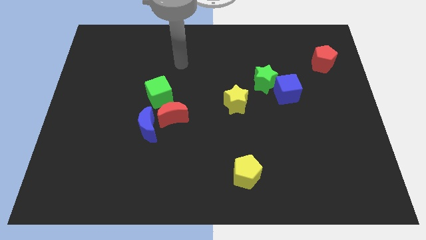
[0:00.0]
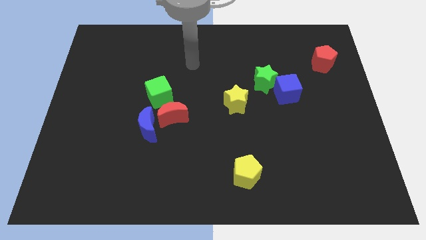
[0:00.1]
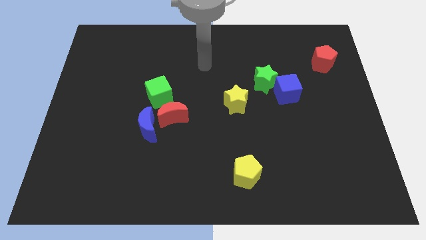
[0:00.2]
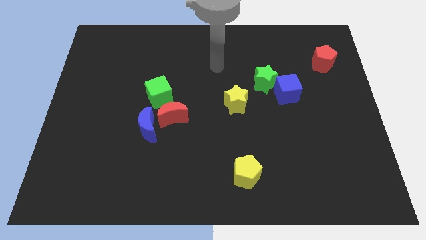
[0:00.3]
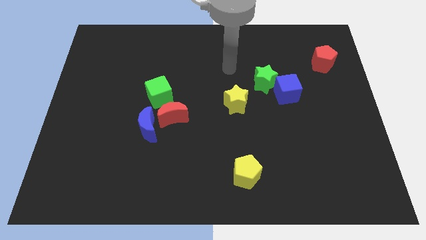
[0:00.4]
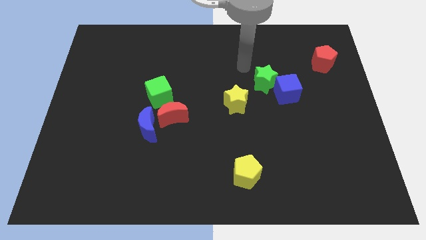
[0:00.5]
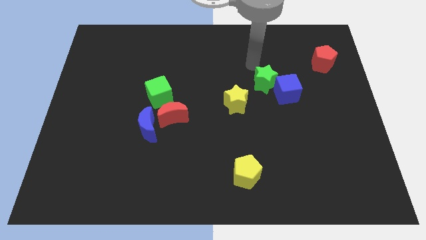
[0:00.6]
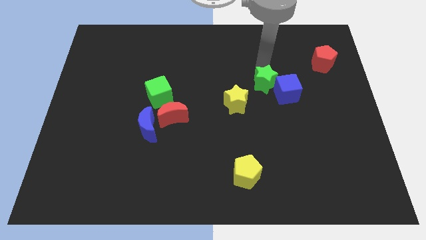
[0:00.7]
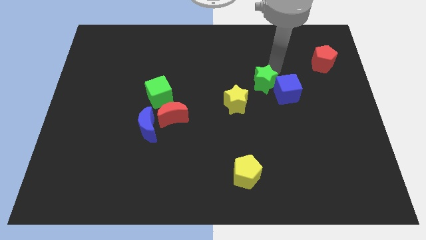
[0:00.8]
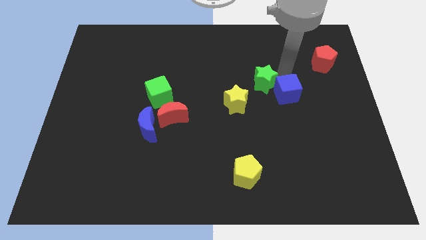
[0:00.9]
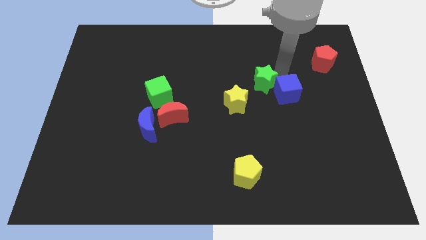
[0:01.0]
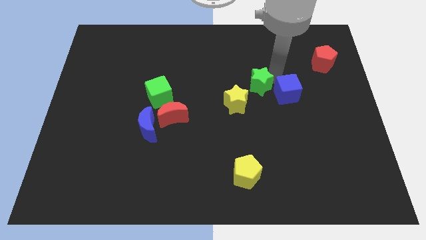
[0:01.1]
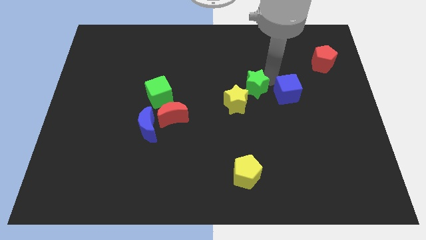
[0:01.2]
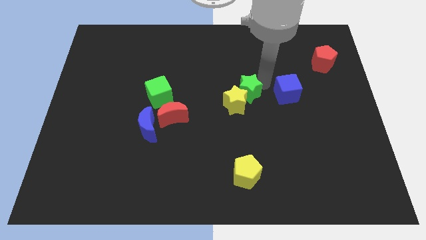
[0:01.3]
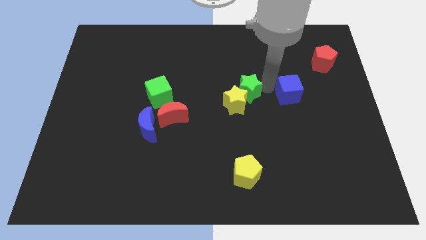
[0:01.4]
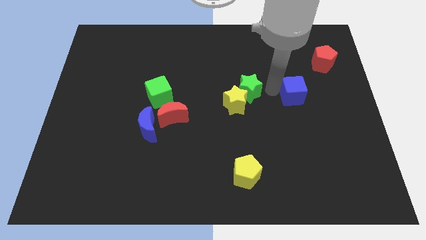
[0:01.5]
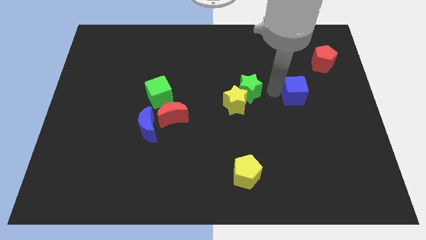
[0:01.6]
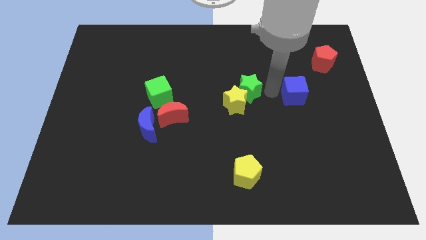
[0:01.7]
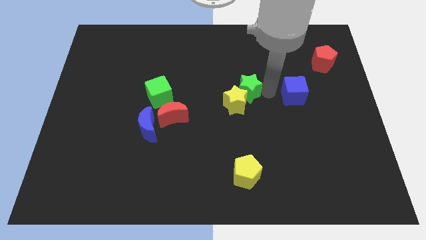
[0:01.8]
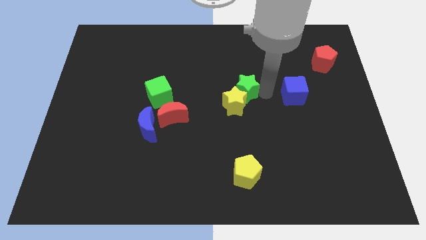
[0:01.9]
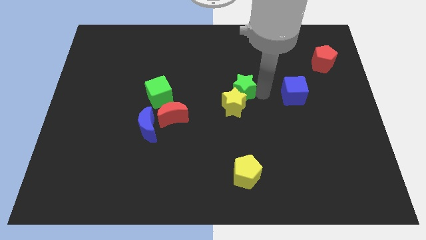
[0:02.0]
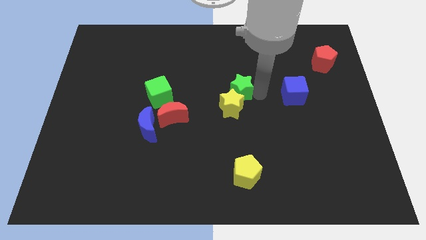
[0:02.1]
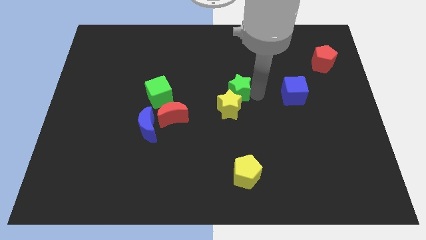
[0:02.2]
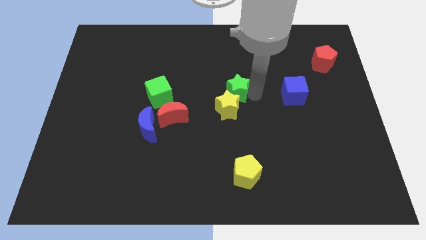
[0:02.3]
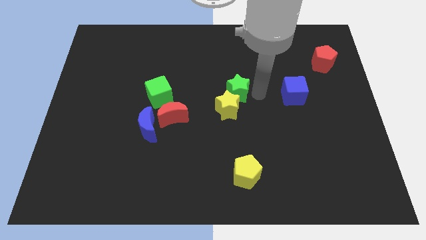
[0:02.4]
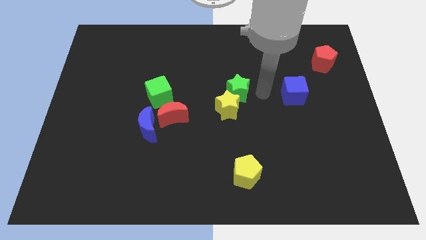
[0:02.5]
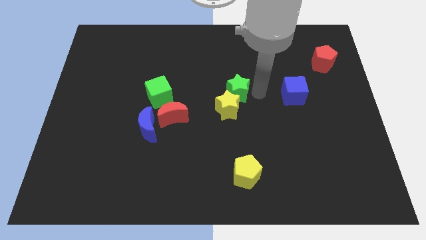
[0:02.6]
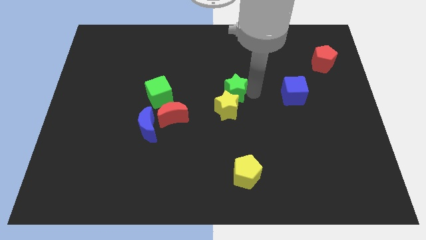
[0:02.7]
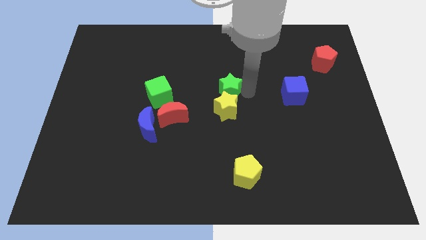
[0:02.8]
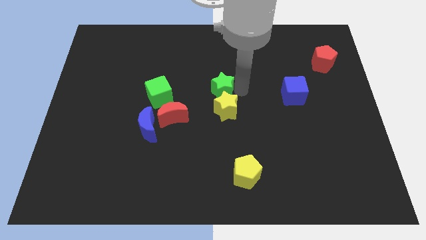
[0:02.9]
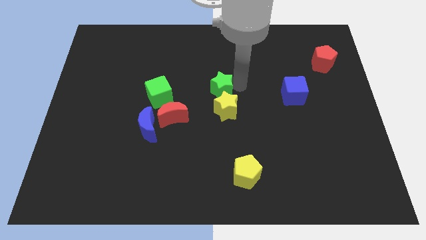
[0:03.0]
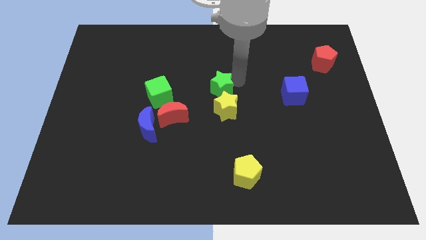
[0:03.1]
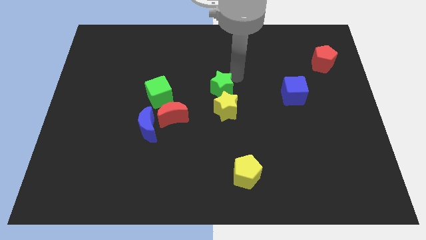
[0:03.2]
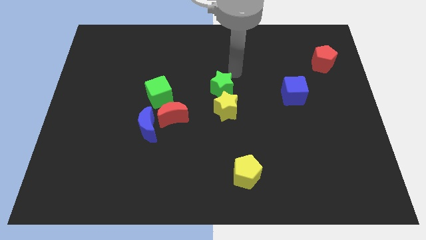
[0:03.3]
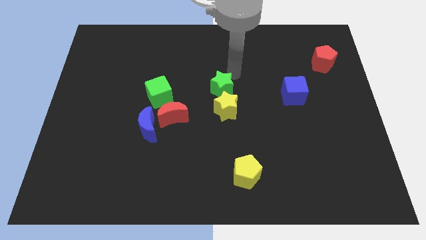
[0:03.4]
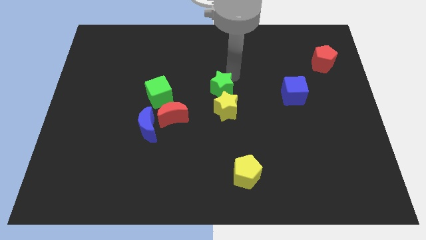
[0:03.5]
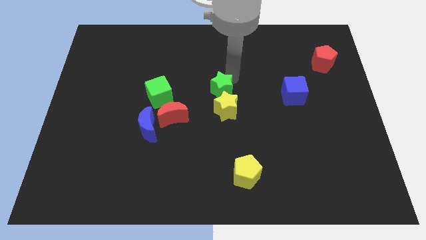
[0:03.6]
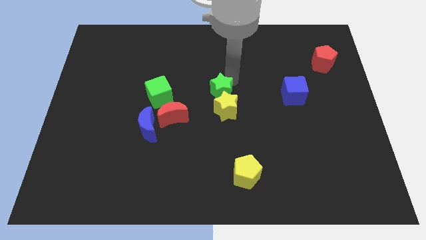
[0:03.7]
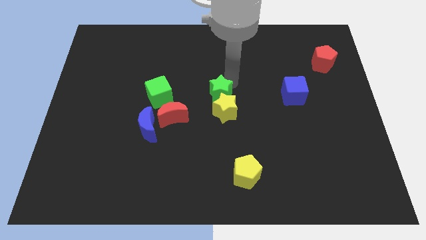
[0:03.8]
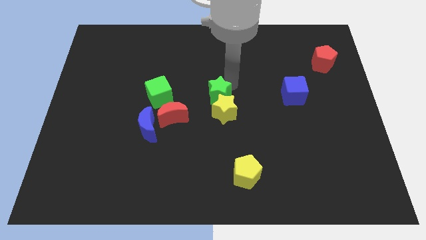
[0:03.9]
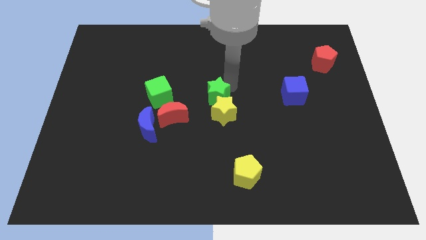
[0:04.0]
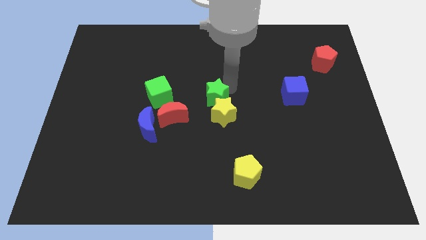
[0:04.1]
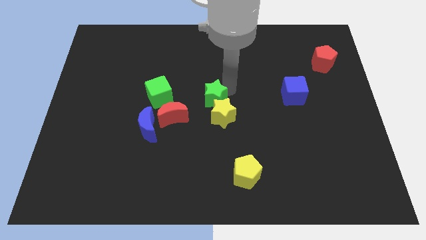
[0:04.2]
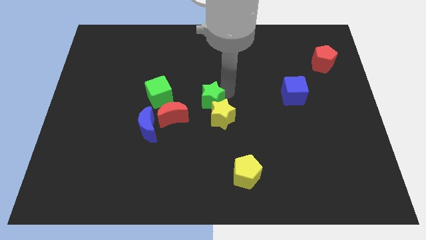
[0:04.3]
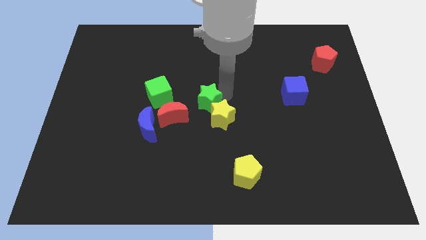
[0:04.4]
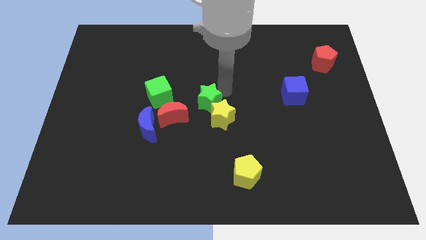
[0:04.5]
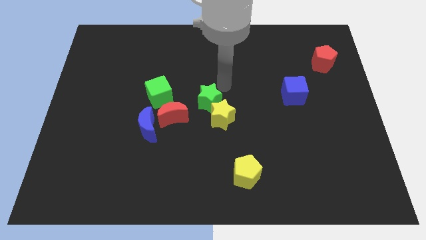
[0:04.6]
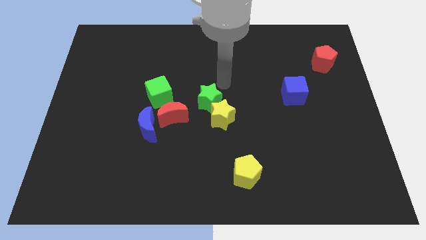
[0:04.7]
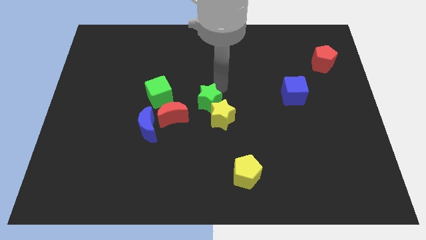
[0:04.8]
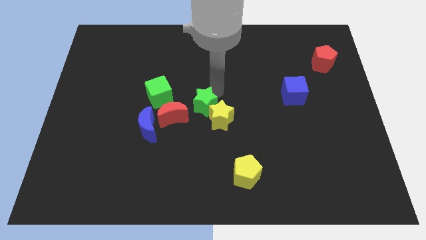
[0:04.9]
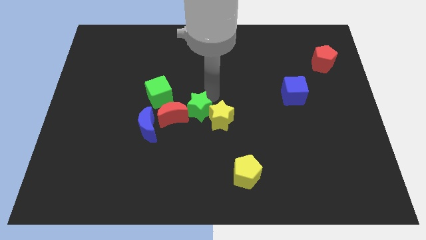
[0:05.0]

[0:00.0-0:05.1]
push the green star diagonally down and to the right of the green cube

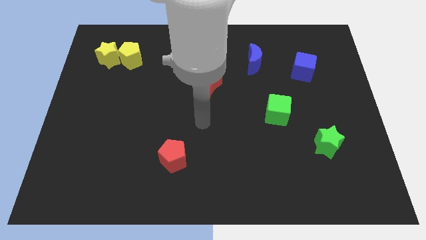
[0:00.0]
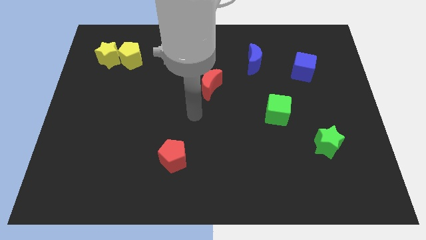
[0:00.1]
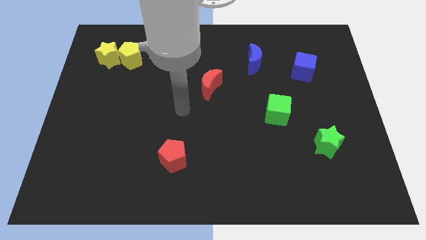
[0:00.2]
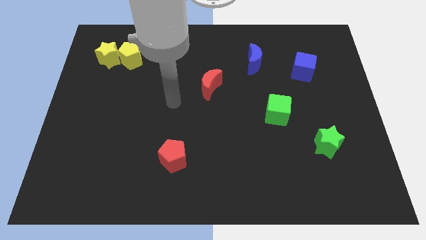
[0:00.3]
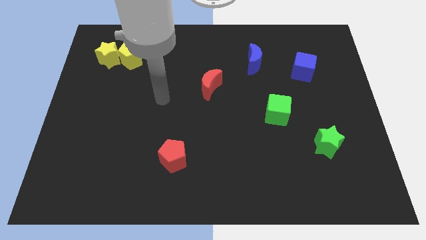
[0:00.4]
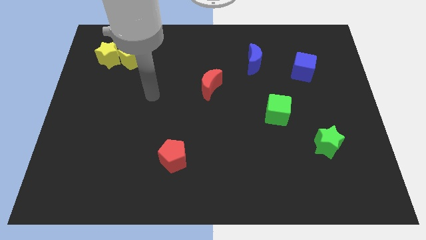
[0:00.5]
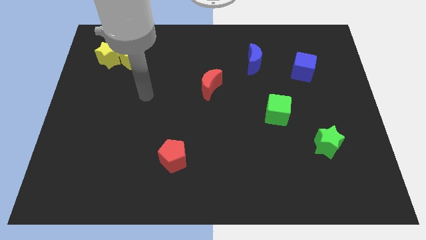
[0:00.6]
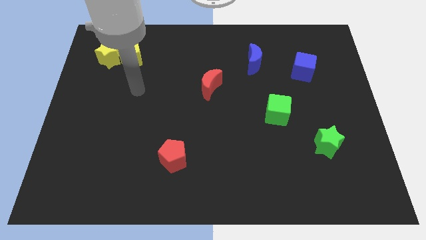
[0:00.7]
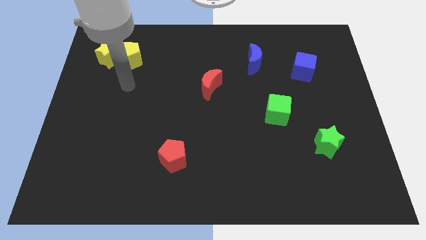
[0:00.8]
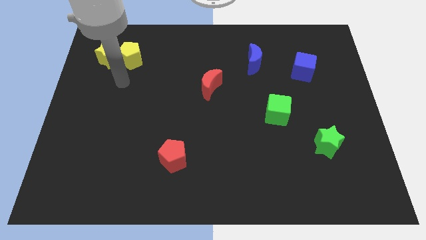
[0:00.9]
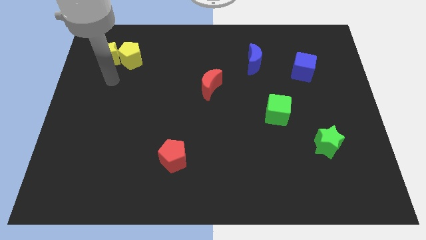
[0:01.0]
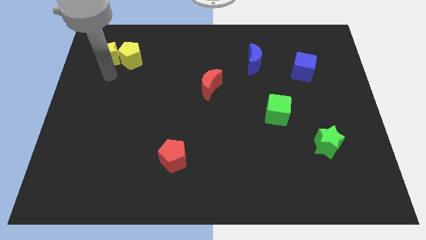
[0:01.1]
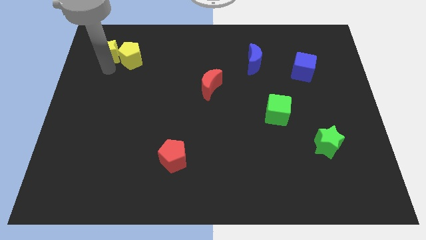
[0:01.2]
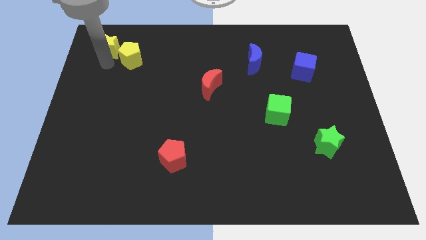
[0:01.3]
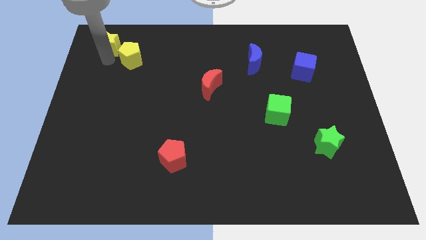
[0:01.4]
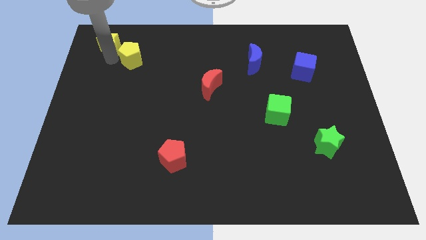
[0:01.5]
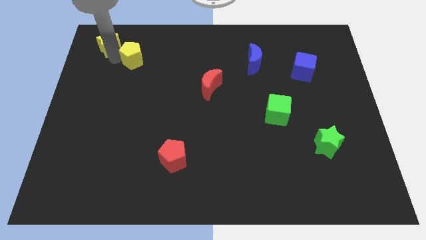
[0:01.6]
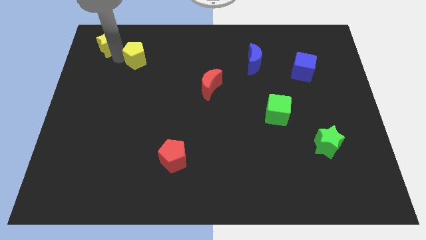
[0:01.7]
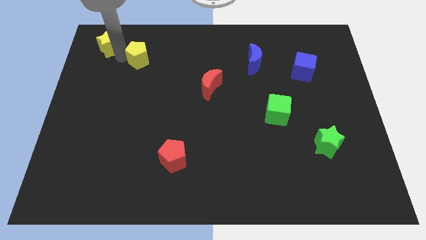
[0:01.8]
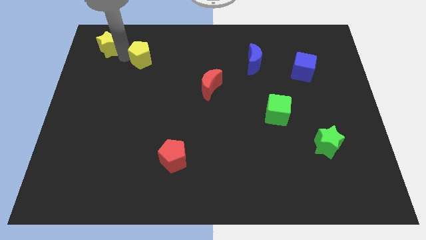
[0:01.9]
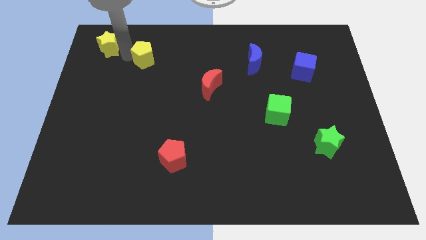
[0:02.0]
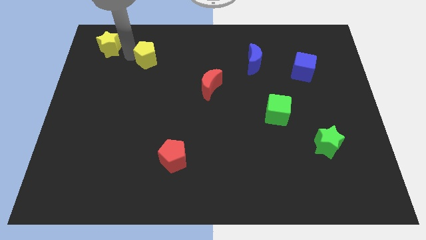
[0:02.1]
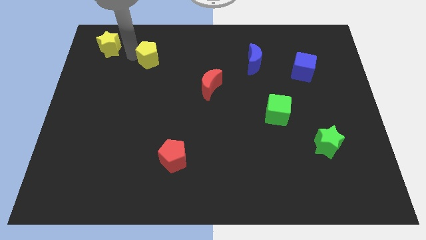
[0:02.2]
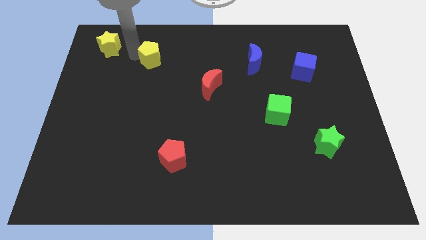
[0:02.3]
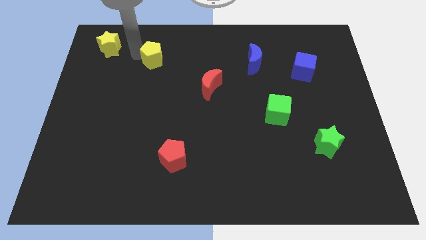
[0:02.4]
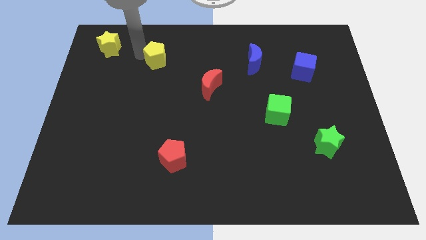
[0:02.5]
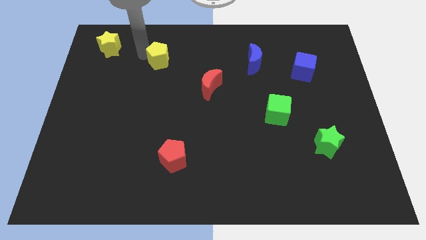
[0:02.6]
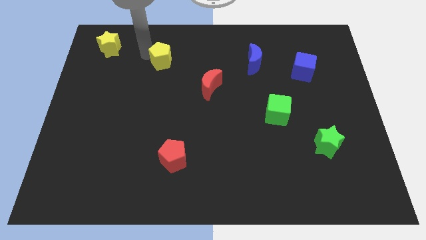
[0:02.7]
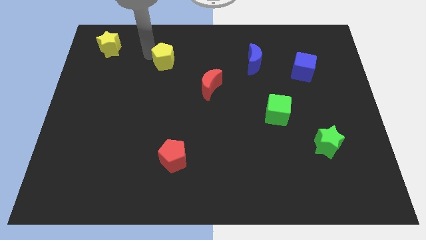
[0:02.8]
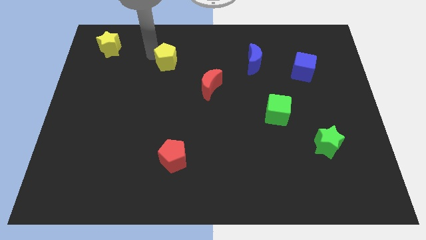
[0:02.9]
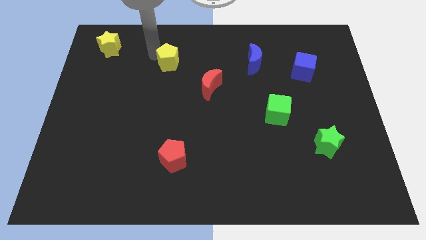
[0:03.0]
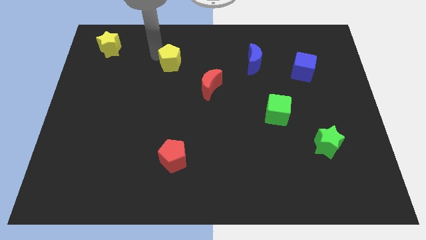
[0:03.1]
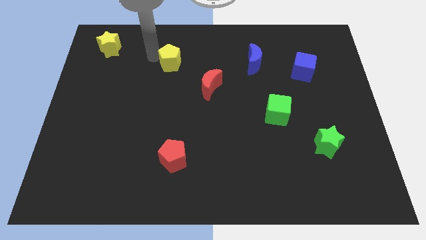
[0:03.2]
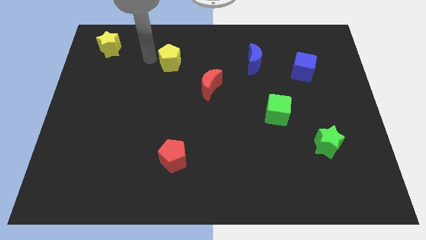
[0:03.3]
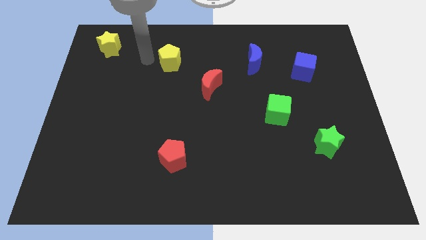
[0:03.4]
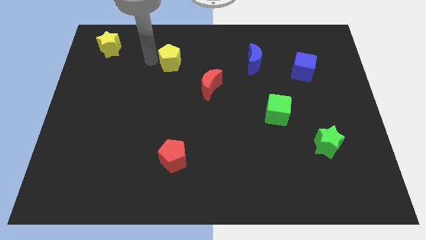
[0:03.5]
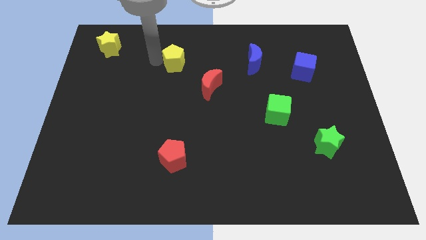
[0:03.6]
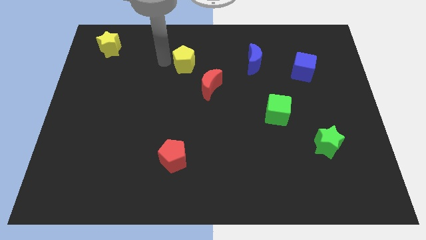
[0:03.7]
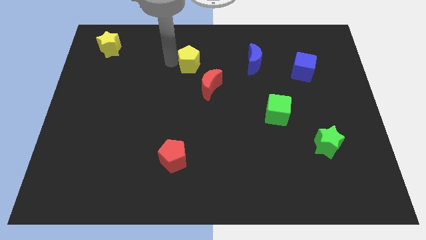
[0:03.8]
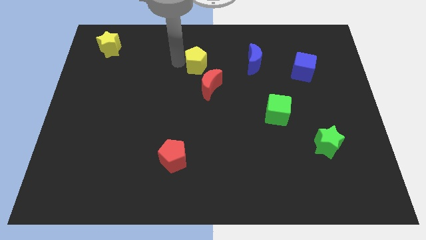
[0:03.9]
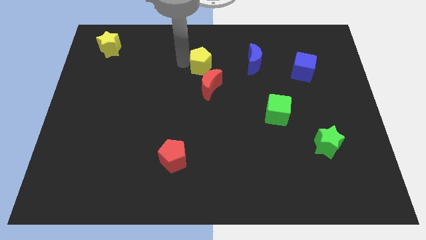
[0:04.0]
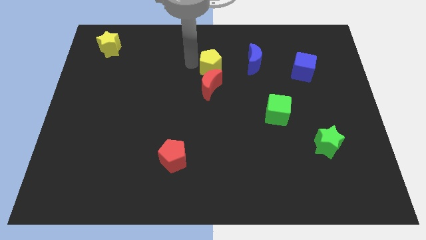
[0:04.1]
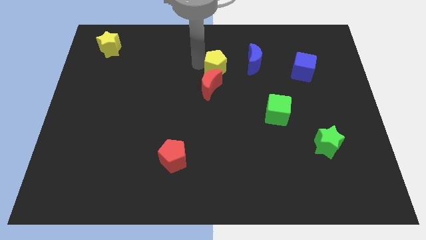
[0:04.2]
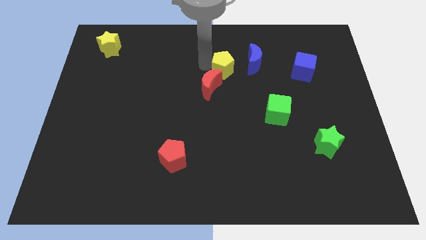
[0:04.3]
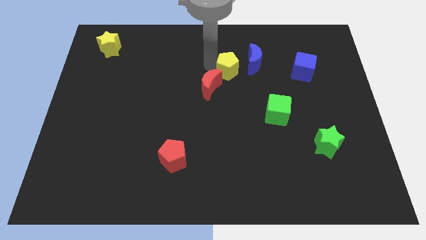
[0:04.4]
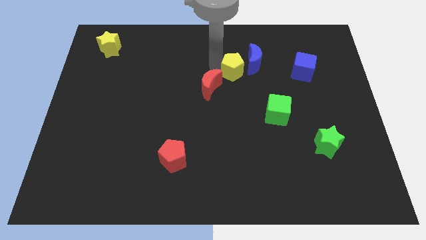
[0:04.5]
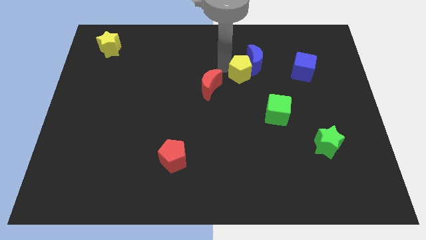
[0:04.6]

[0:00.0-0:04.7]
push the yellow pentagon to the bottom side of the blue moon
